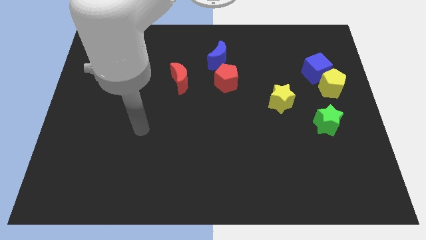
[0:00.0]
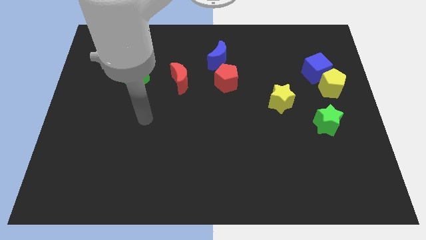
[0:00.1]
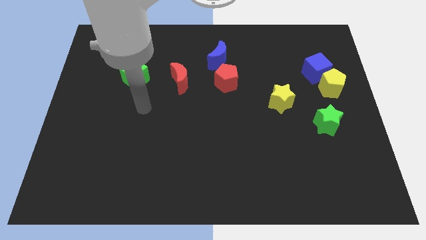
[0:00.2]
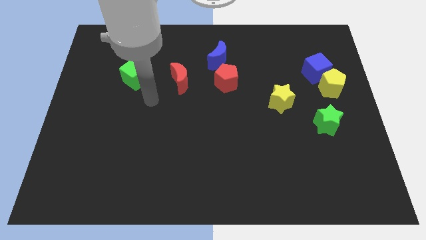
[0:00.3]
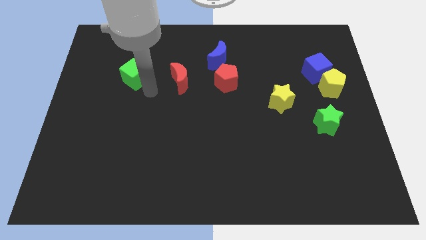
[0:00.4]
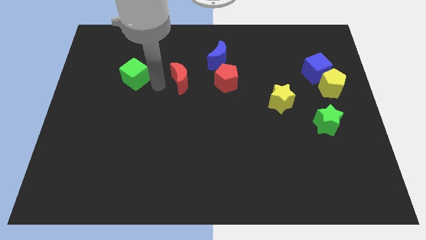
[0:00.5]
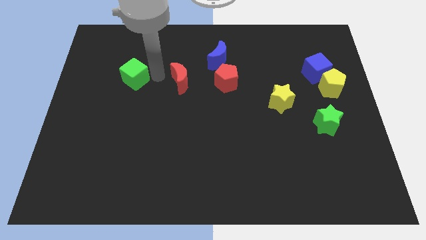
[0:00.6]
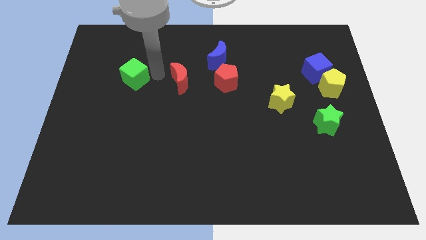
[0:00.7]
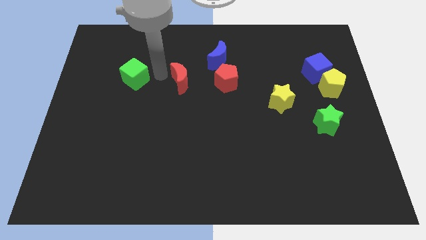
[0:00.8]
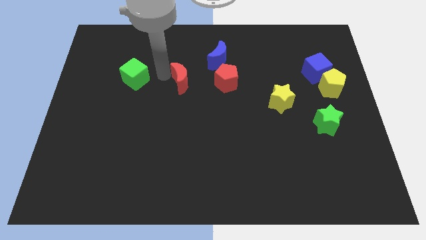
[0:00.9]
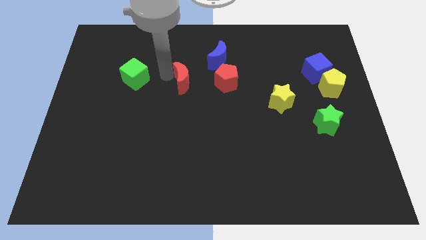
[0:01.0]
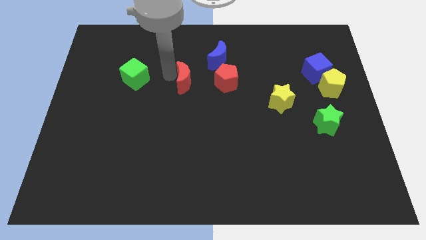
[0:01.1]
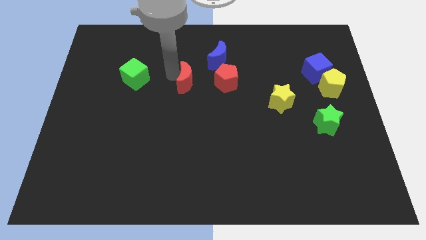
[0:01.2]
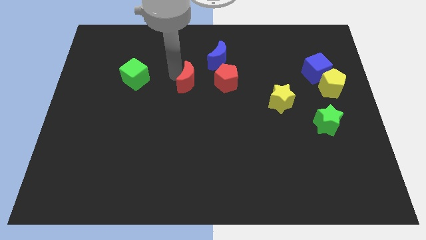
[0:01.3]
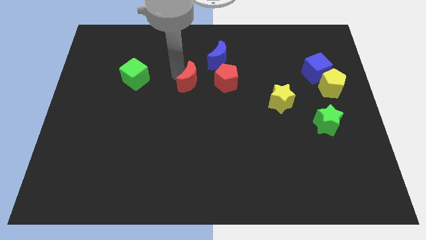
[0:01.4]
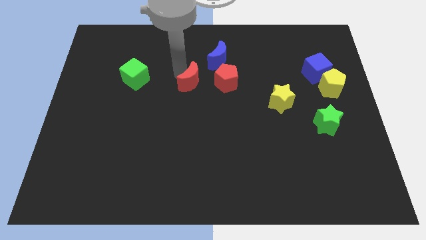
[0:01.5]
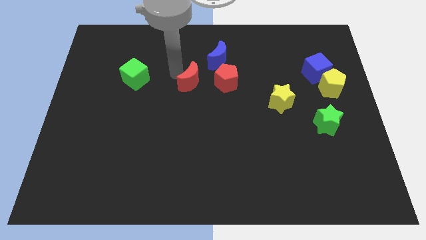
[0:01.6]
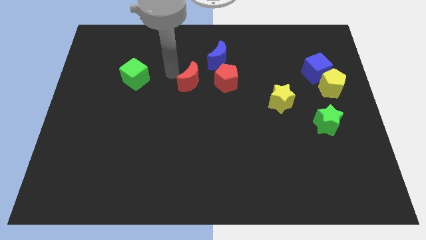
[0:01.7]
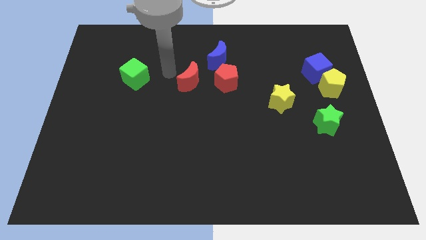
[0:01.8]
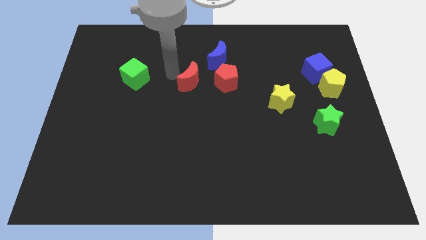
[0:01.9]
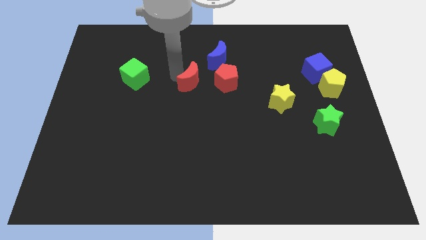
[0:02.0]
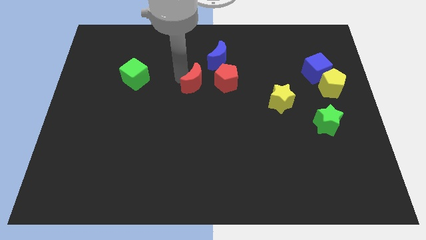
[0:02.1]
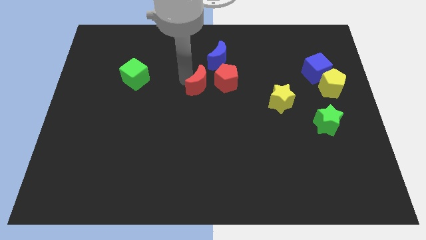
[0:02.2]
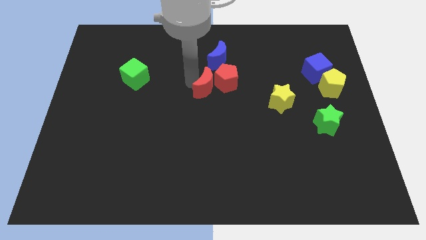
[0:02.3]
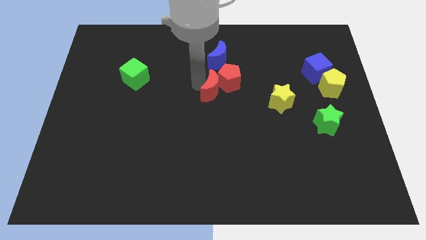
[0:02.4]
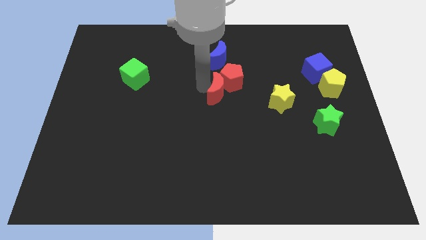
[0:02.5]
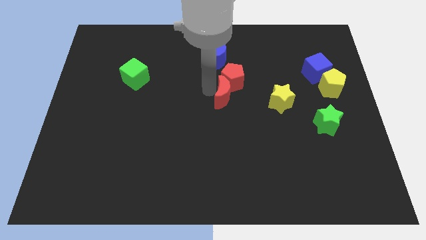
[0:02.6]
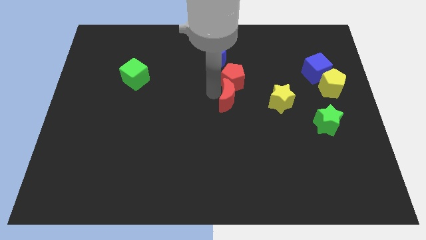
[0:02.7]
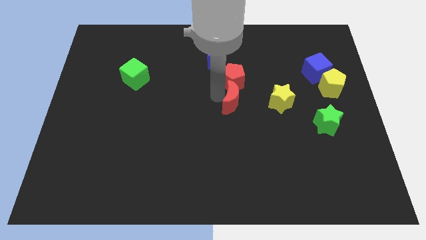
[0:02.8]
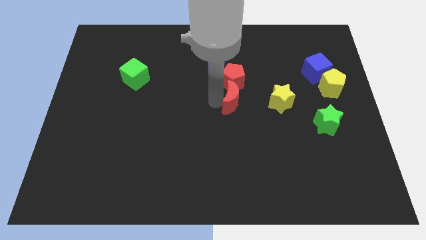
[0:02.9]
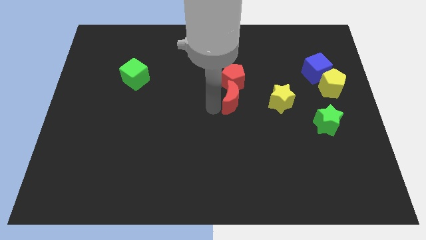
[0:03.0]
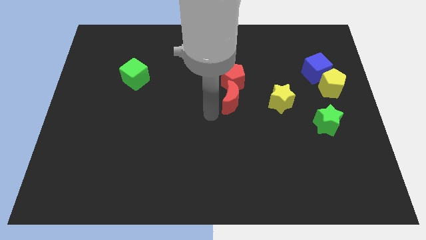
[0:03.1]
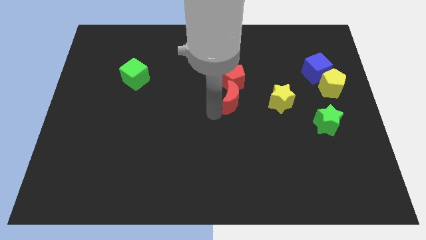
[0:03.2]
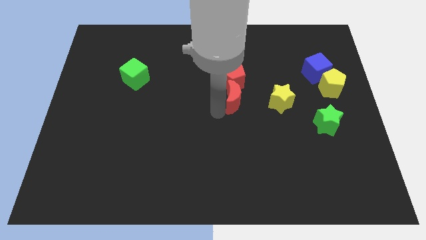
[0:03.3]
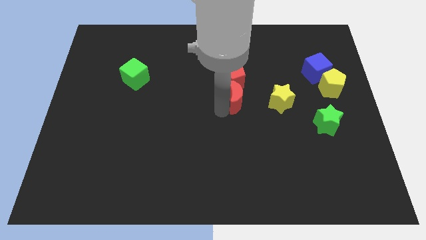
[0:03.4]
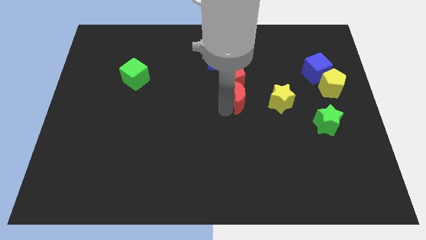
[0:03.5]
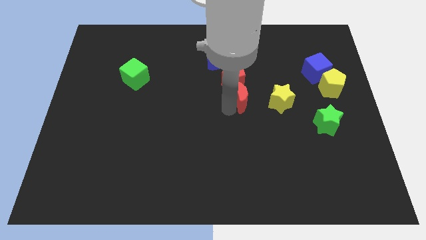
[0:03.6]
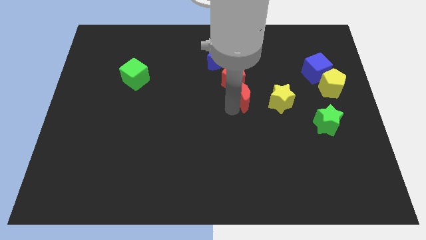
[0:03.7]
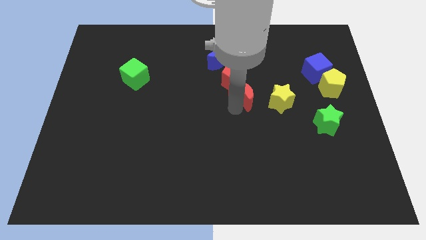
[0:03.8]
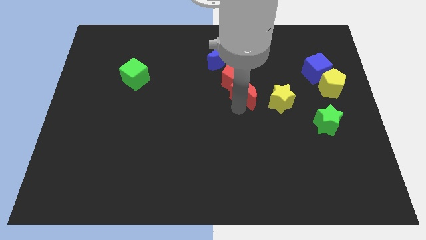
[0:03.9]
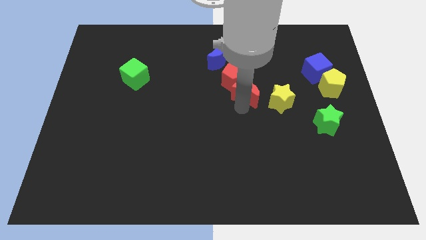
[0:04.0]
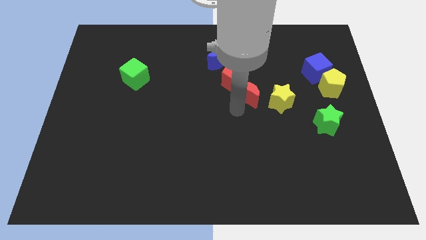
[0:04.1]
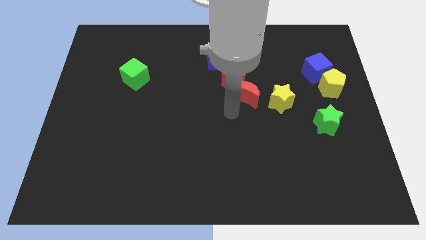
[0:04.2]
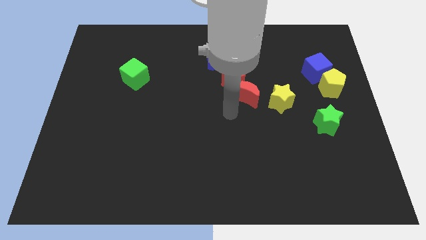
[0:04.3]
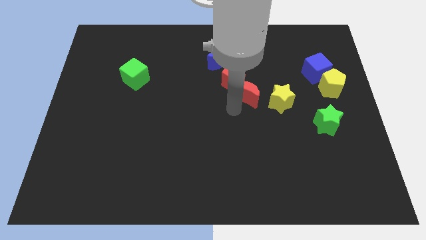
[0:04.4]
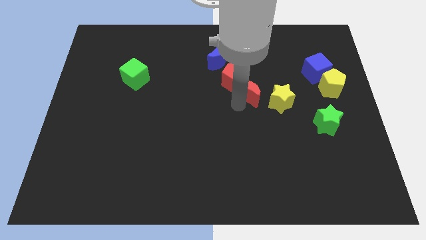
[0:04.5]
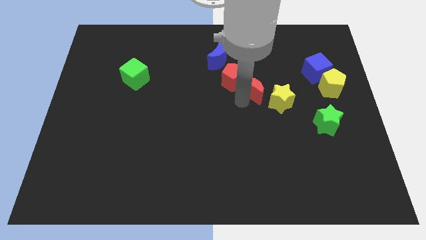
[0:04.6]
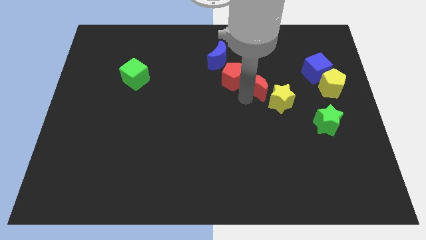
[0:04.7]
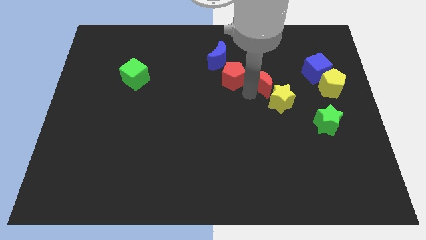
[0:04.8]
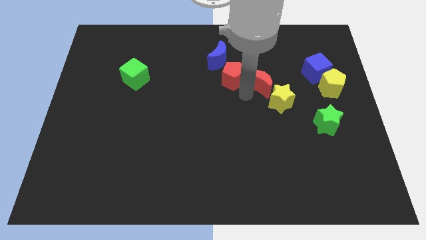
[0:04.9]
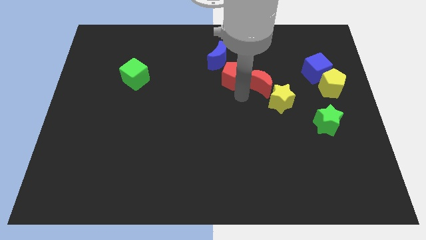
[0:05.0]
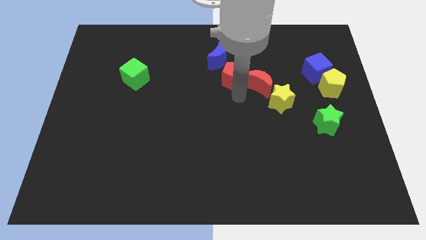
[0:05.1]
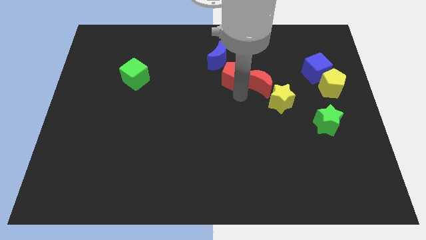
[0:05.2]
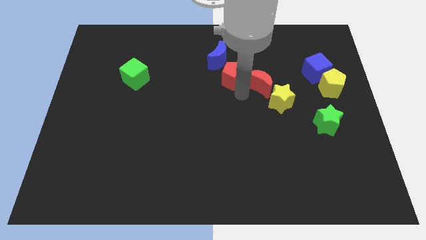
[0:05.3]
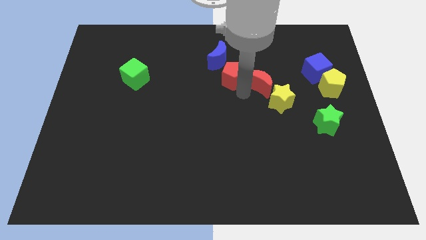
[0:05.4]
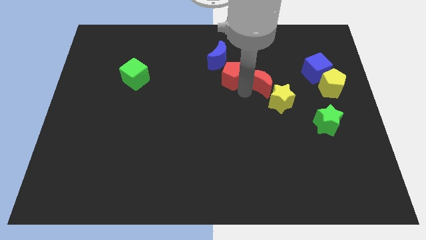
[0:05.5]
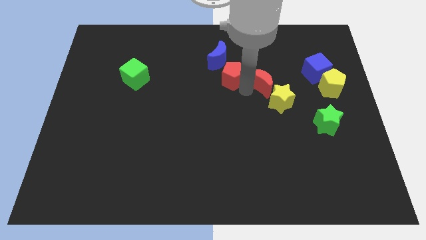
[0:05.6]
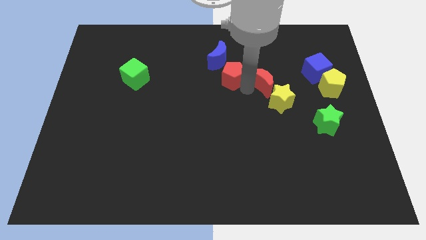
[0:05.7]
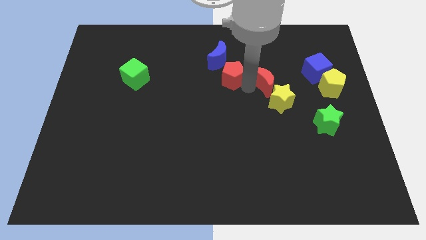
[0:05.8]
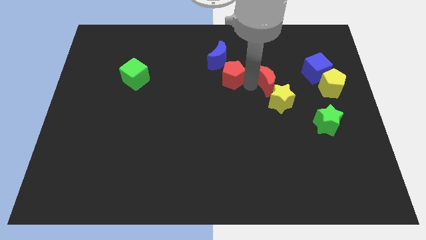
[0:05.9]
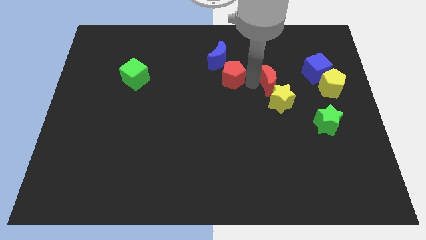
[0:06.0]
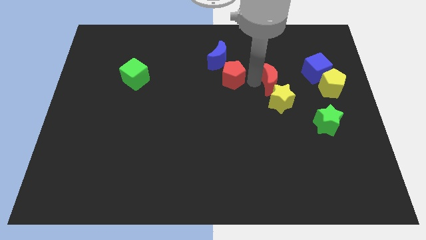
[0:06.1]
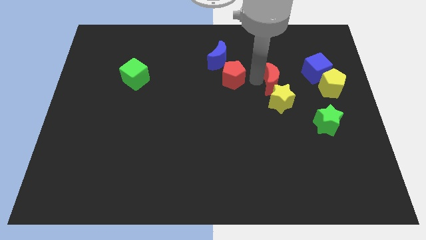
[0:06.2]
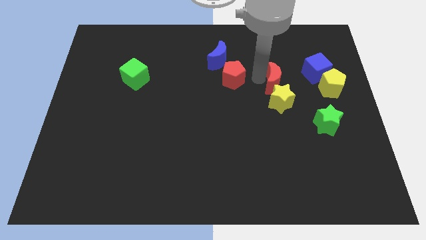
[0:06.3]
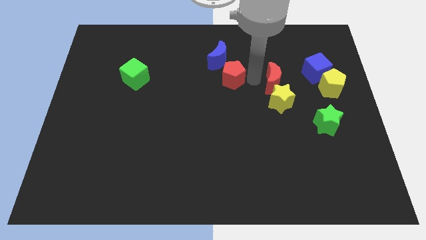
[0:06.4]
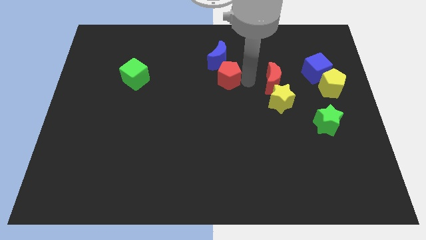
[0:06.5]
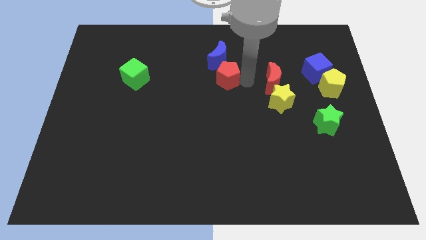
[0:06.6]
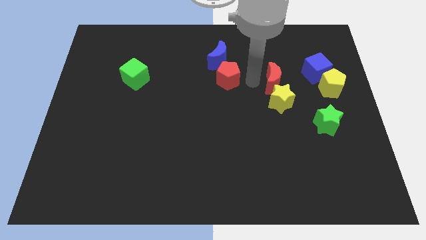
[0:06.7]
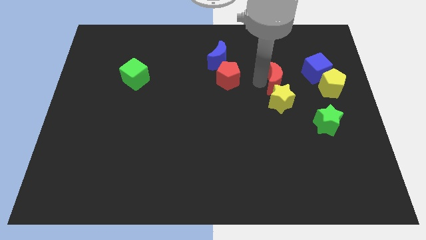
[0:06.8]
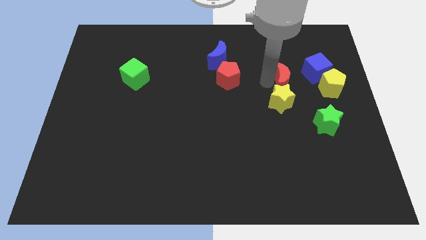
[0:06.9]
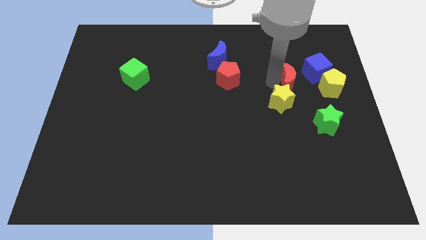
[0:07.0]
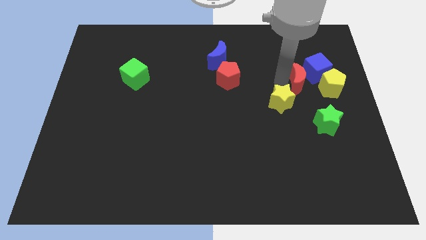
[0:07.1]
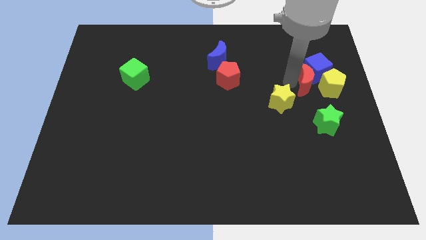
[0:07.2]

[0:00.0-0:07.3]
slide the red moon close to the yellow pentagon

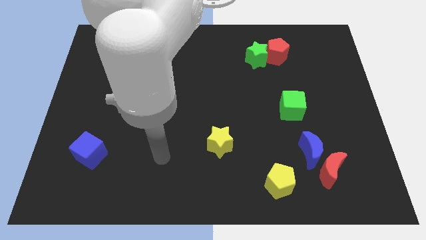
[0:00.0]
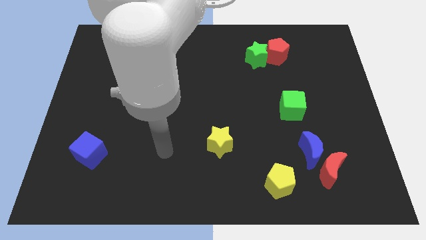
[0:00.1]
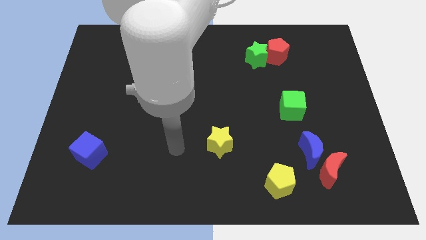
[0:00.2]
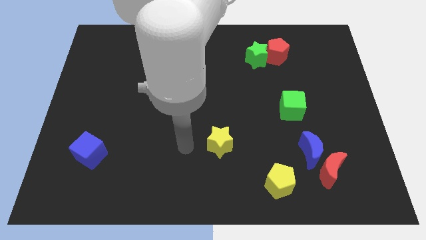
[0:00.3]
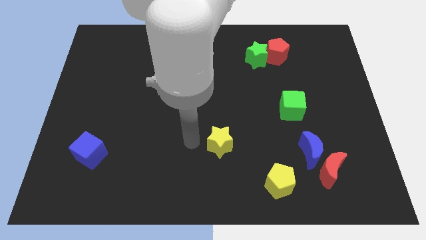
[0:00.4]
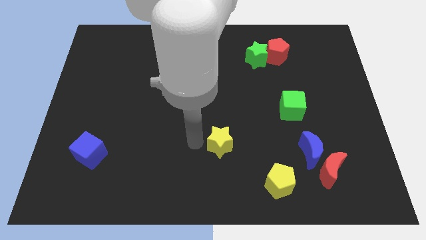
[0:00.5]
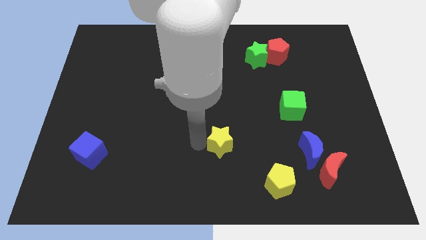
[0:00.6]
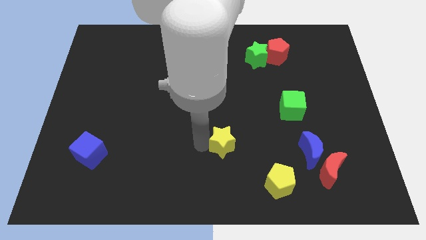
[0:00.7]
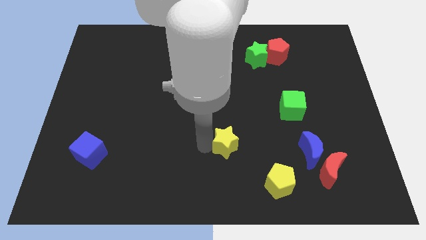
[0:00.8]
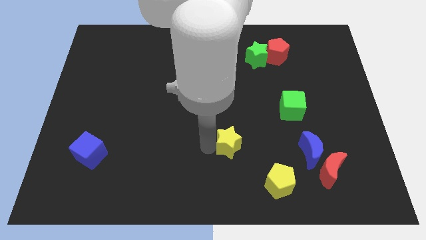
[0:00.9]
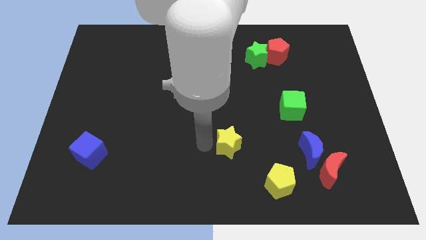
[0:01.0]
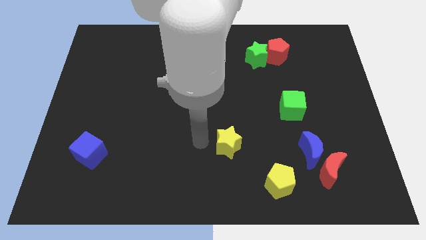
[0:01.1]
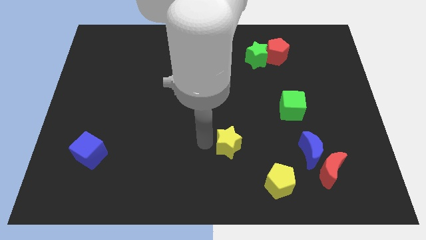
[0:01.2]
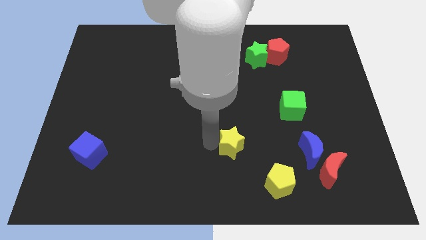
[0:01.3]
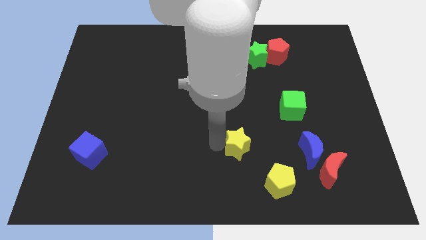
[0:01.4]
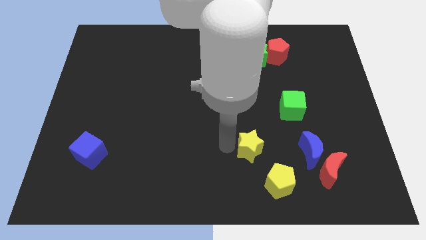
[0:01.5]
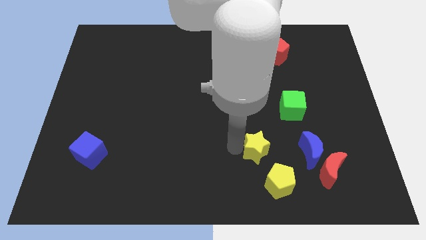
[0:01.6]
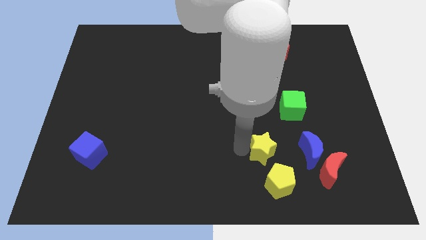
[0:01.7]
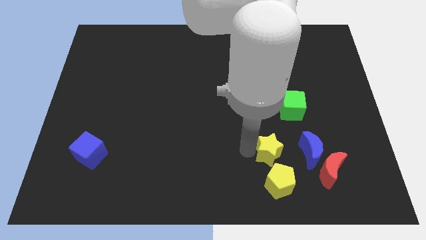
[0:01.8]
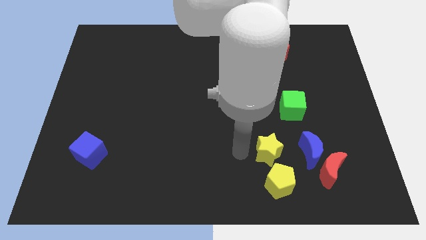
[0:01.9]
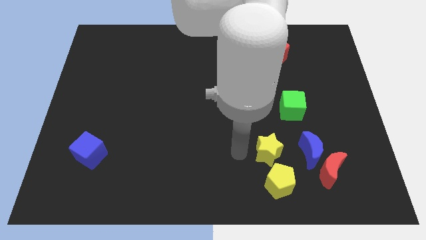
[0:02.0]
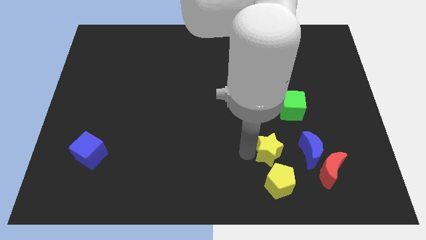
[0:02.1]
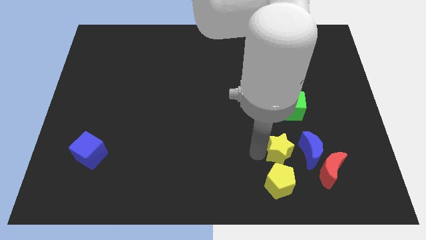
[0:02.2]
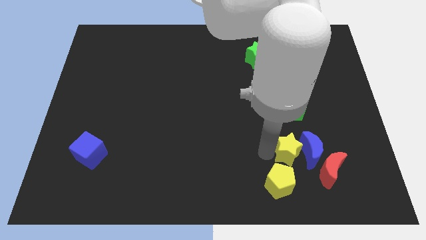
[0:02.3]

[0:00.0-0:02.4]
put the yellow star towards the blue moon
